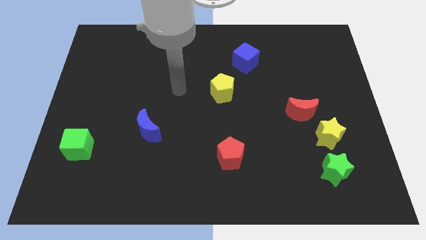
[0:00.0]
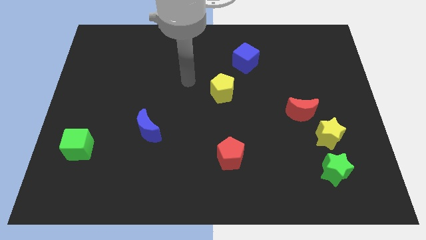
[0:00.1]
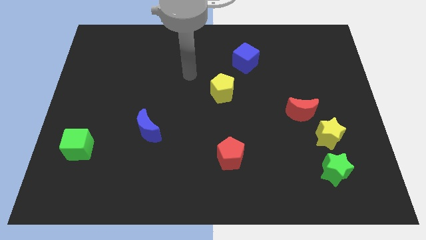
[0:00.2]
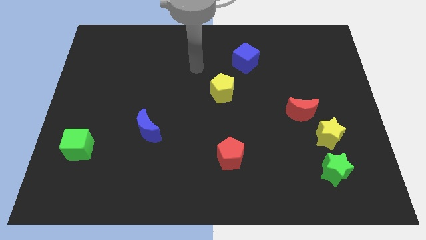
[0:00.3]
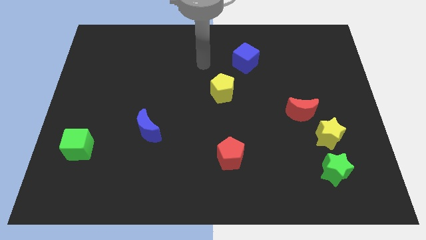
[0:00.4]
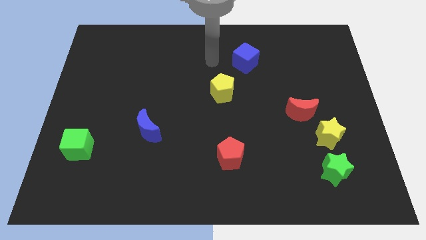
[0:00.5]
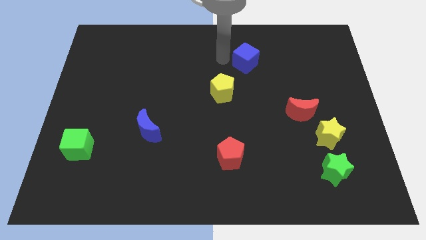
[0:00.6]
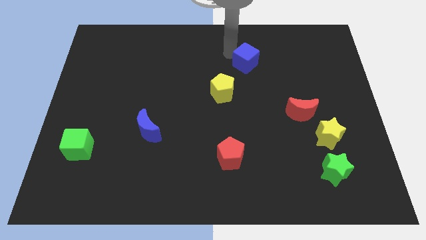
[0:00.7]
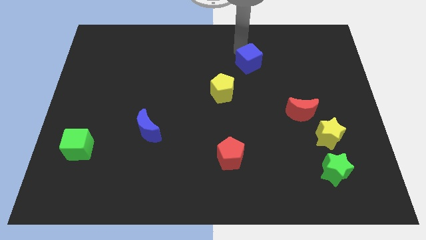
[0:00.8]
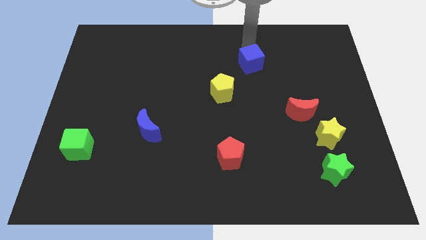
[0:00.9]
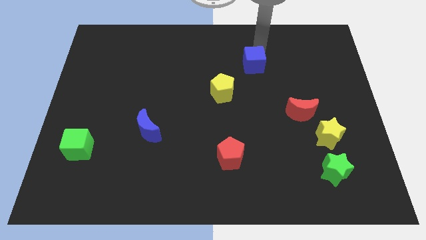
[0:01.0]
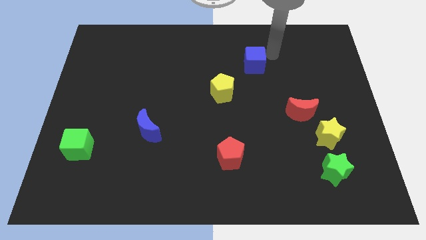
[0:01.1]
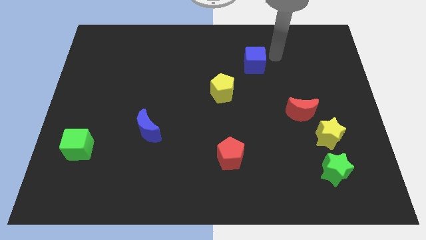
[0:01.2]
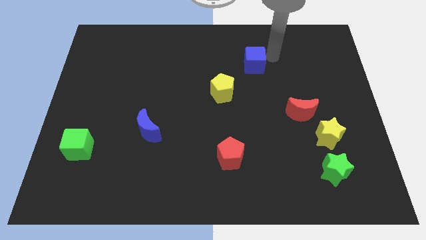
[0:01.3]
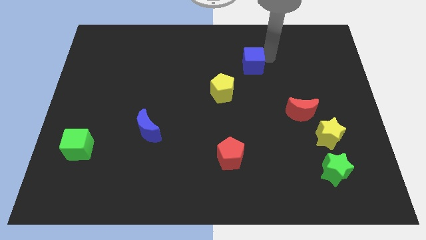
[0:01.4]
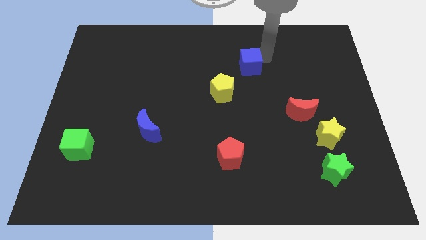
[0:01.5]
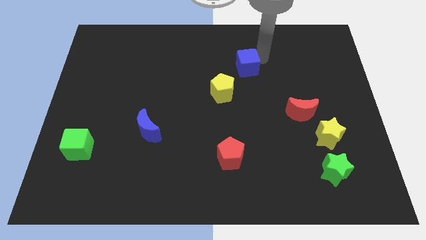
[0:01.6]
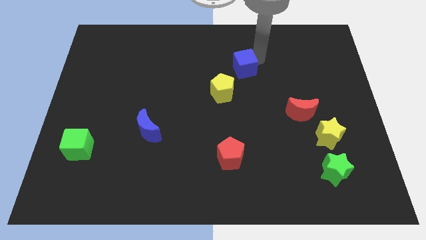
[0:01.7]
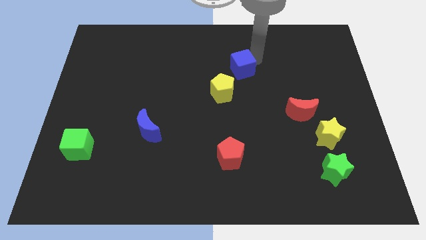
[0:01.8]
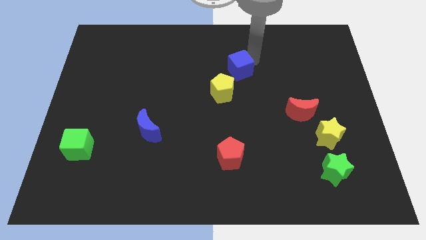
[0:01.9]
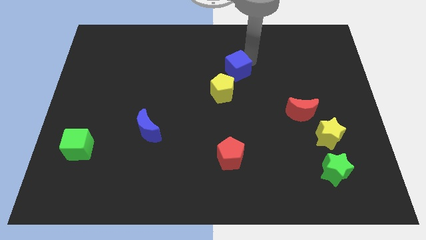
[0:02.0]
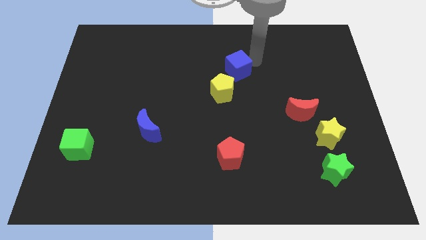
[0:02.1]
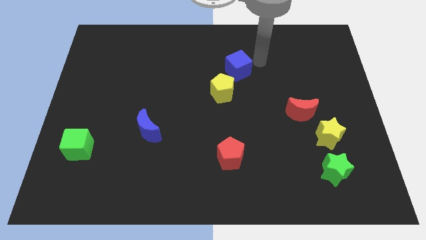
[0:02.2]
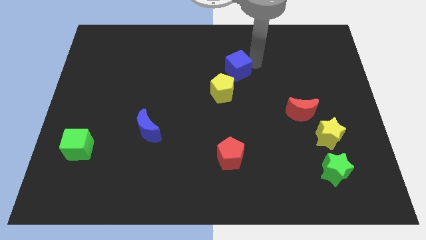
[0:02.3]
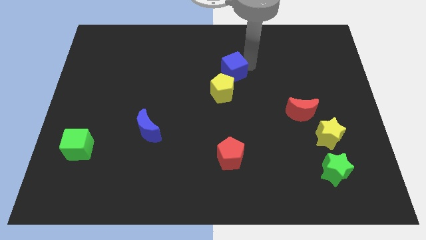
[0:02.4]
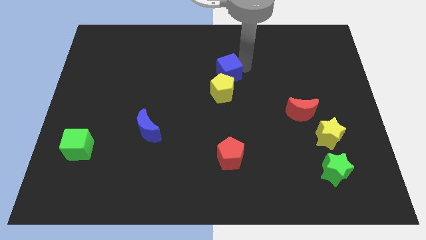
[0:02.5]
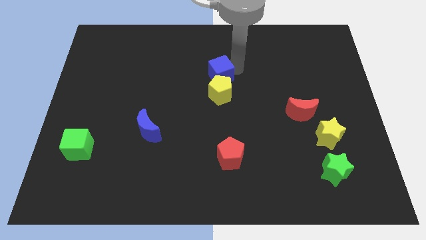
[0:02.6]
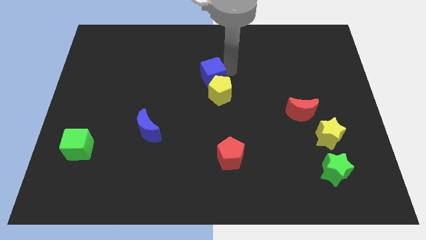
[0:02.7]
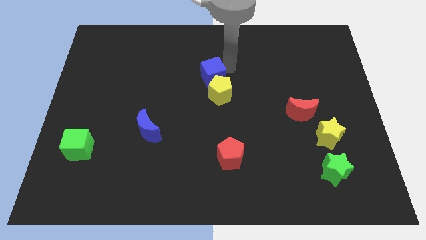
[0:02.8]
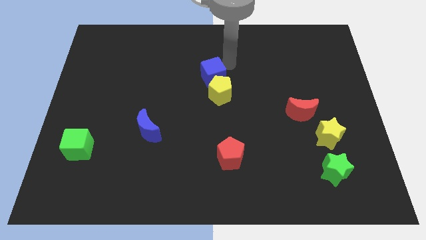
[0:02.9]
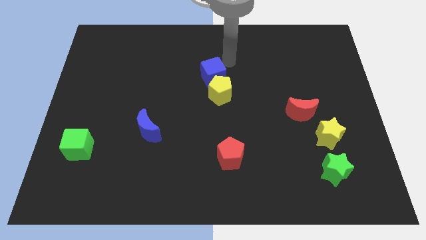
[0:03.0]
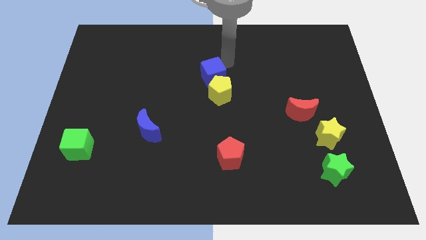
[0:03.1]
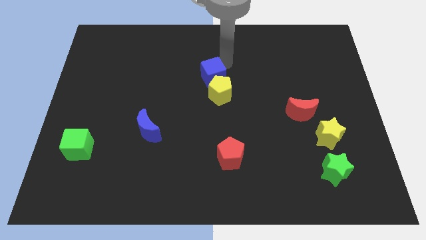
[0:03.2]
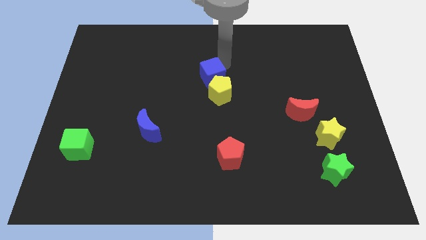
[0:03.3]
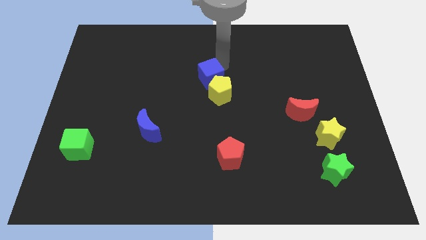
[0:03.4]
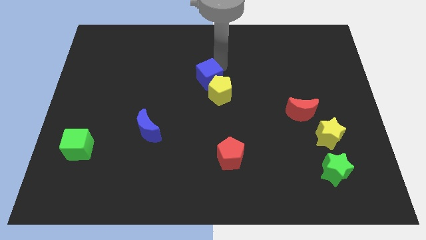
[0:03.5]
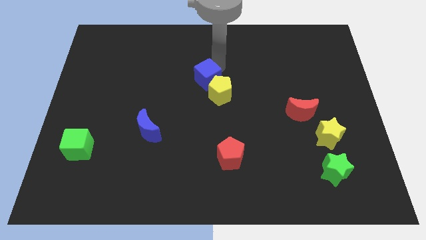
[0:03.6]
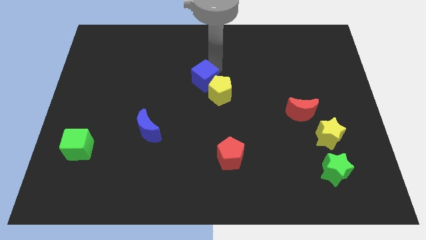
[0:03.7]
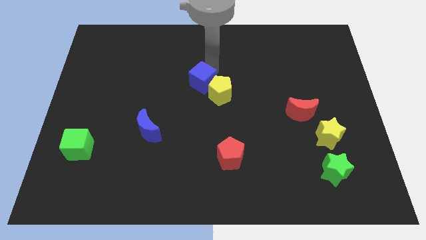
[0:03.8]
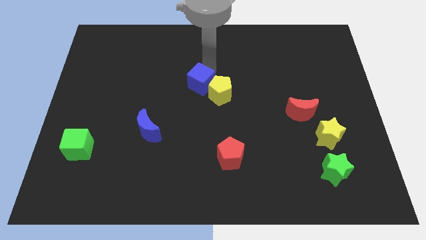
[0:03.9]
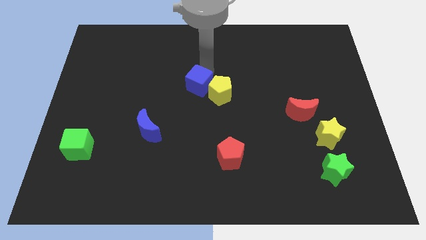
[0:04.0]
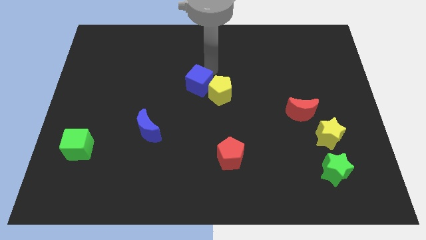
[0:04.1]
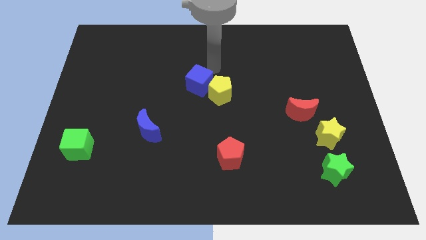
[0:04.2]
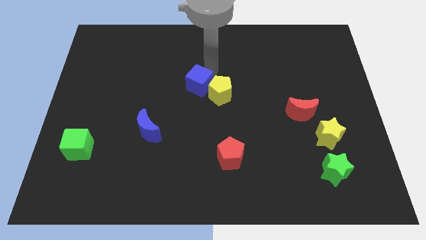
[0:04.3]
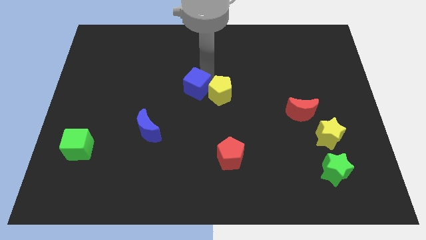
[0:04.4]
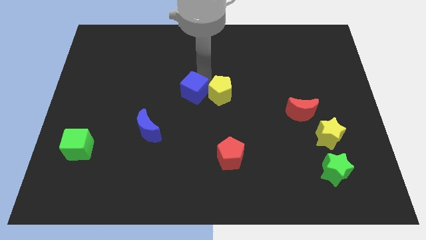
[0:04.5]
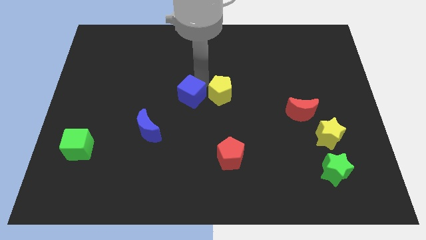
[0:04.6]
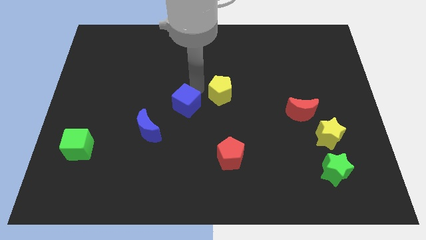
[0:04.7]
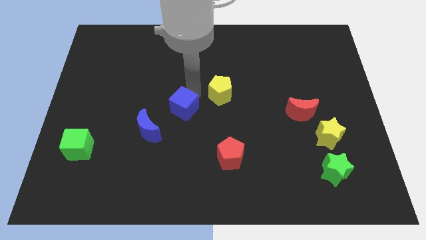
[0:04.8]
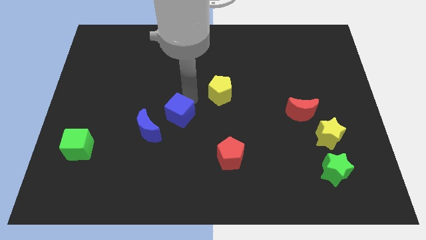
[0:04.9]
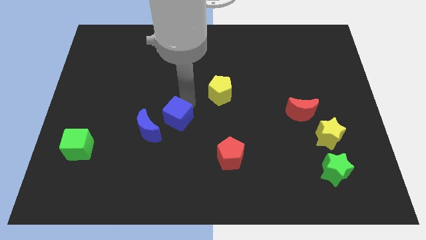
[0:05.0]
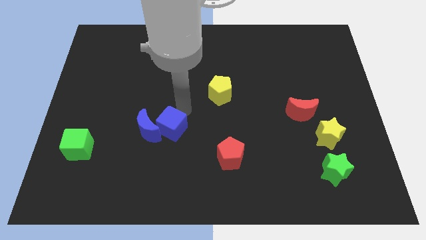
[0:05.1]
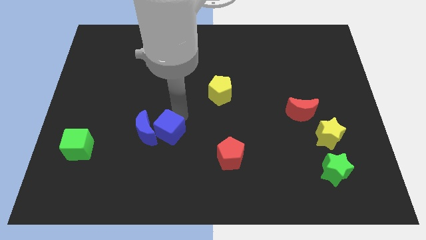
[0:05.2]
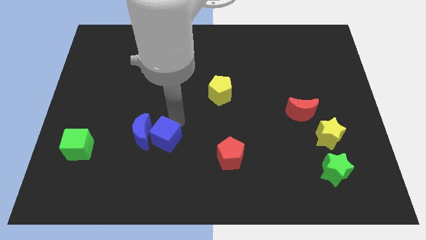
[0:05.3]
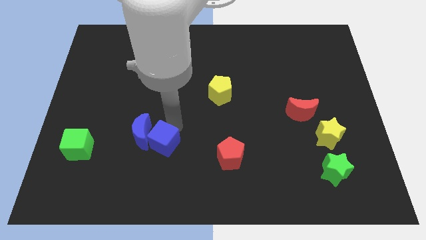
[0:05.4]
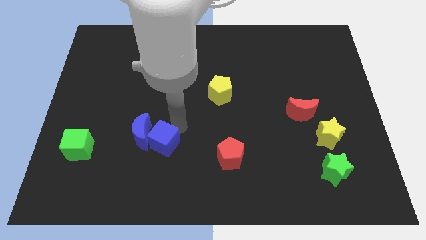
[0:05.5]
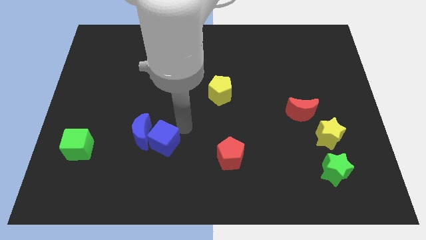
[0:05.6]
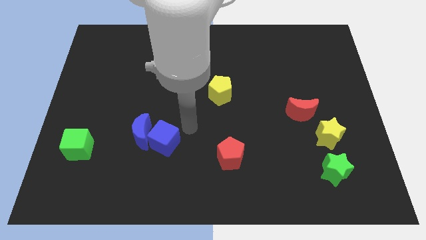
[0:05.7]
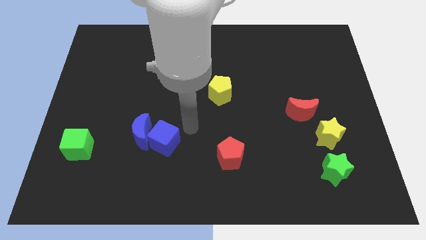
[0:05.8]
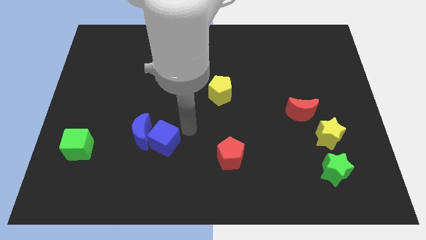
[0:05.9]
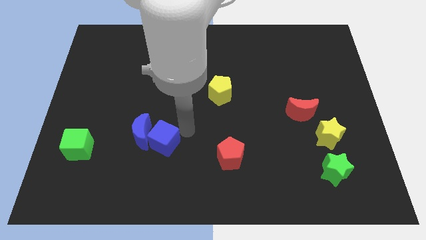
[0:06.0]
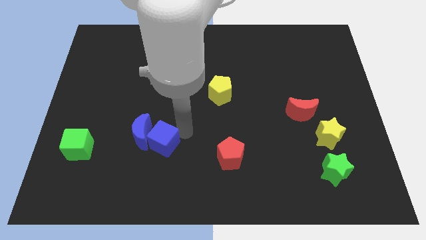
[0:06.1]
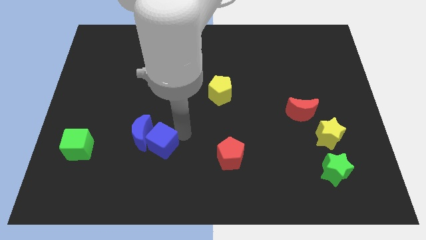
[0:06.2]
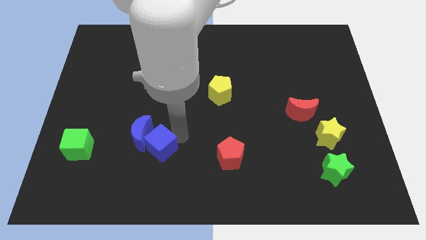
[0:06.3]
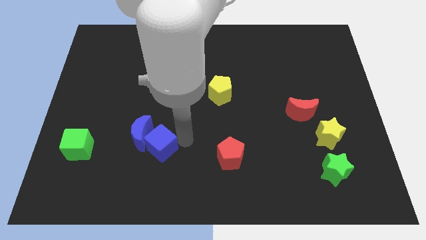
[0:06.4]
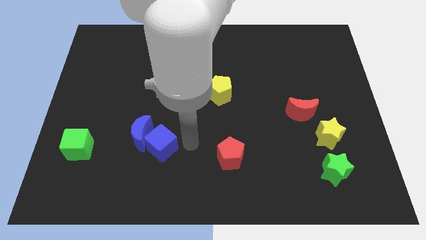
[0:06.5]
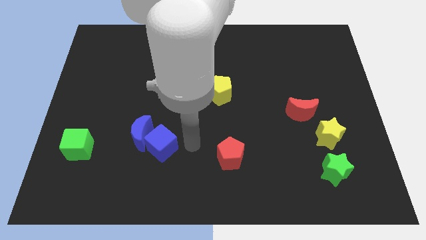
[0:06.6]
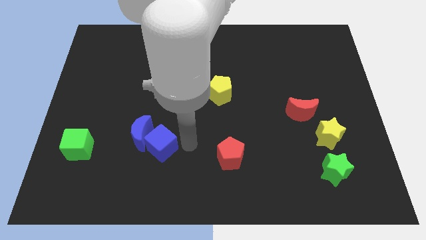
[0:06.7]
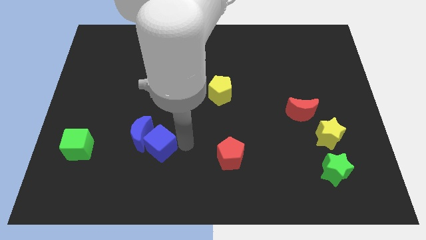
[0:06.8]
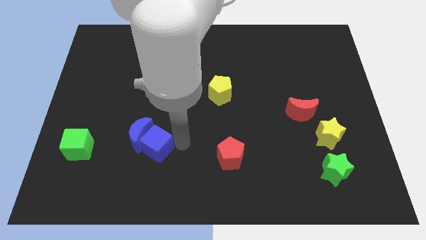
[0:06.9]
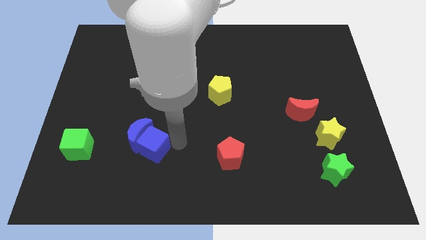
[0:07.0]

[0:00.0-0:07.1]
move the blue cube to the right side of the green cube
